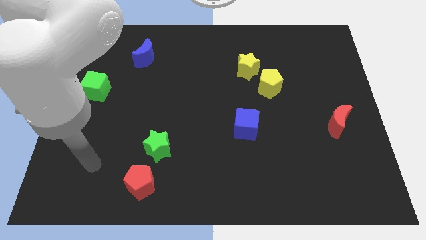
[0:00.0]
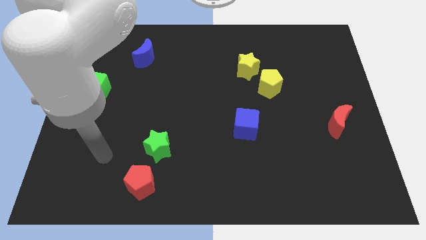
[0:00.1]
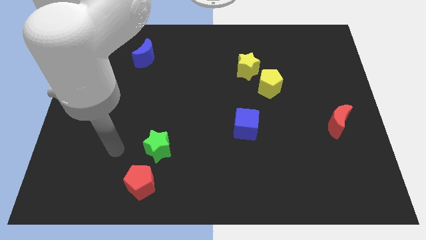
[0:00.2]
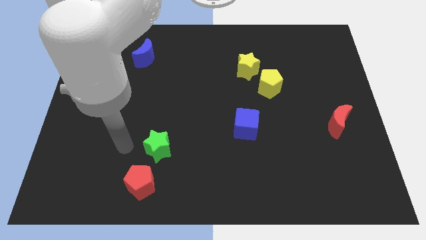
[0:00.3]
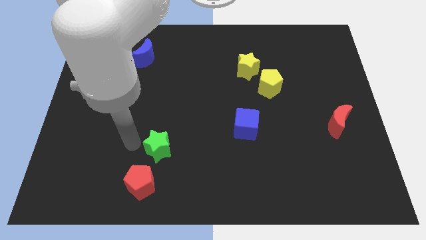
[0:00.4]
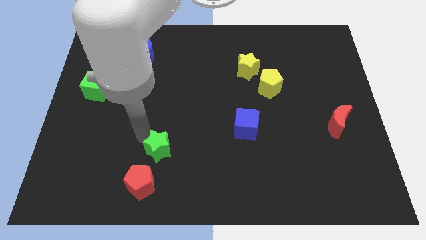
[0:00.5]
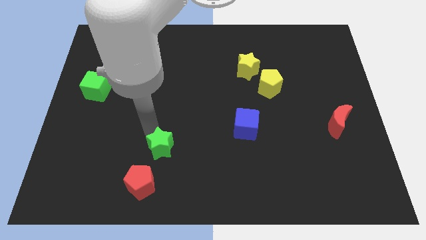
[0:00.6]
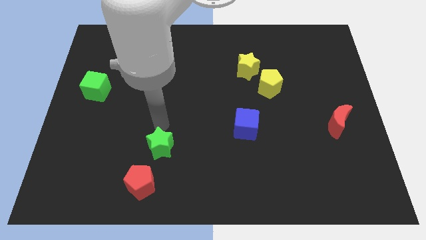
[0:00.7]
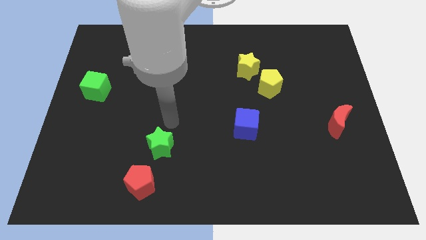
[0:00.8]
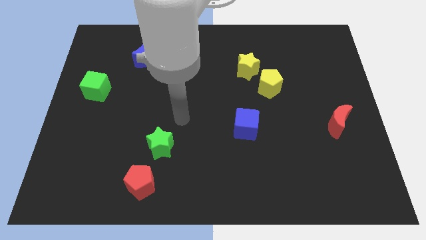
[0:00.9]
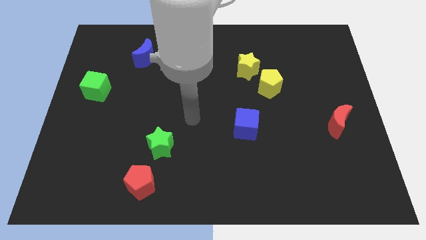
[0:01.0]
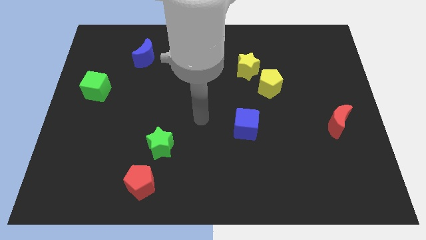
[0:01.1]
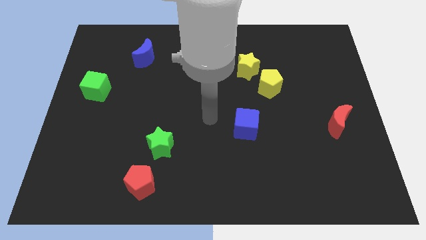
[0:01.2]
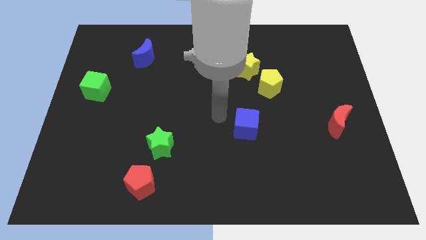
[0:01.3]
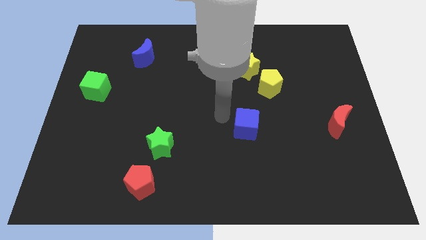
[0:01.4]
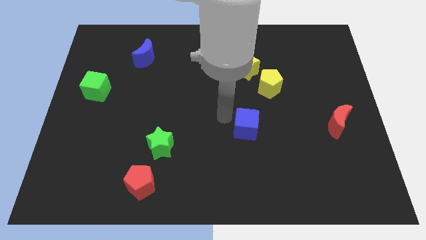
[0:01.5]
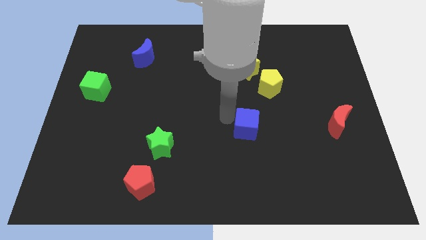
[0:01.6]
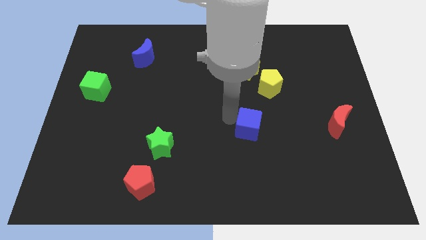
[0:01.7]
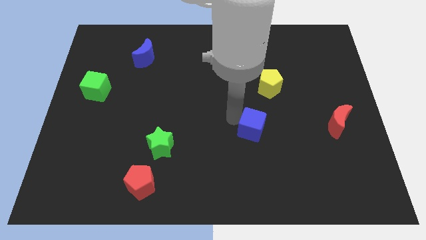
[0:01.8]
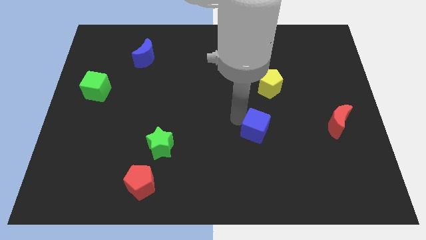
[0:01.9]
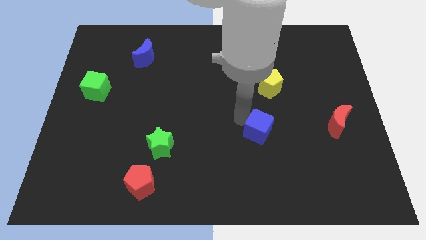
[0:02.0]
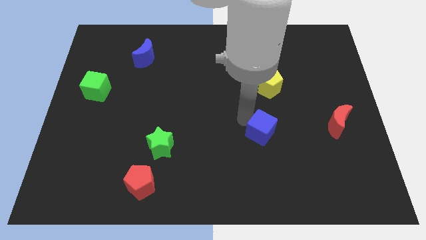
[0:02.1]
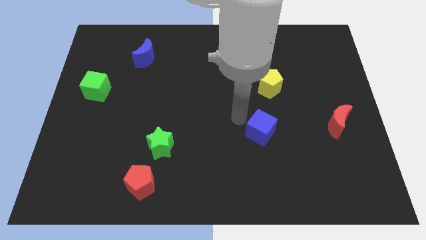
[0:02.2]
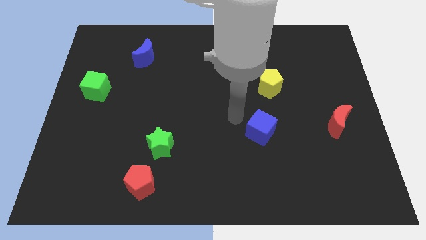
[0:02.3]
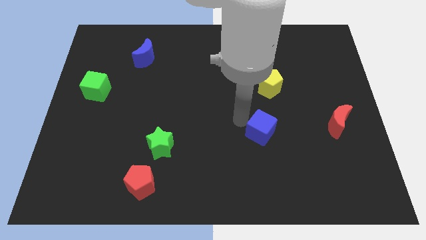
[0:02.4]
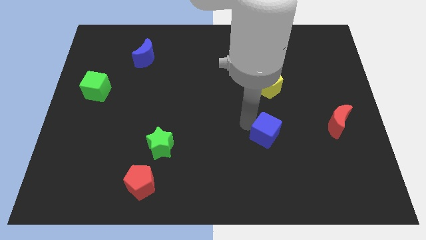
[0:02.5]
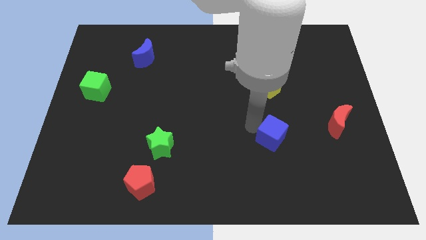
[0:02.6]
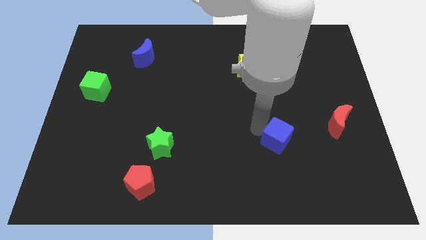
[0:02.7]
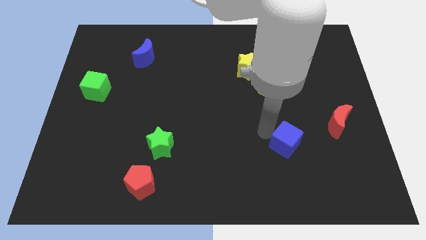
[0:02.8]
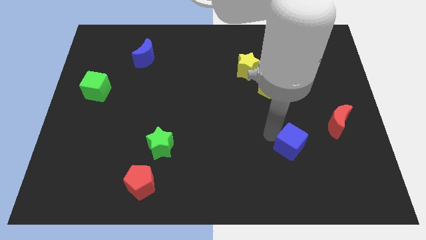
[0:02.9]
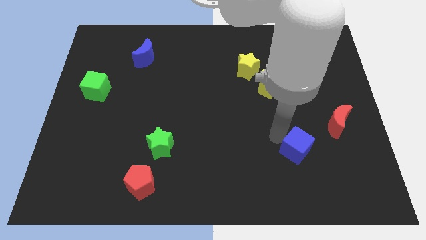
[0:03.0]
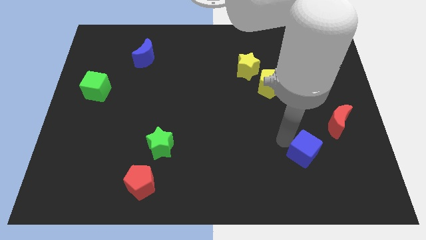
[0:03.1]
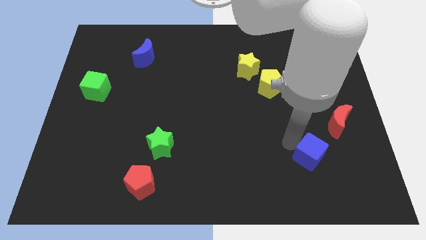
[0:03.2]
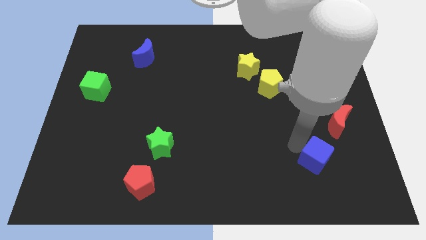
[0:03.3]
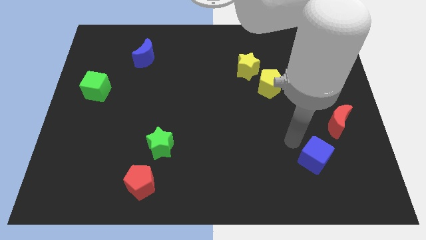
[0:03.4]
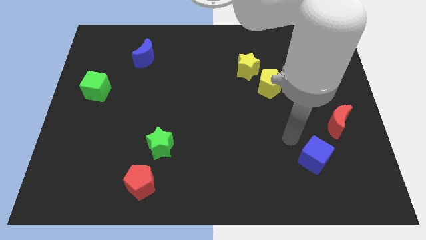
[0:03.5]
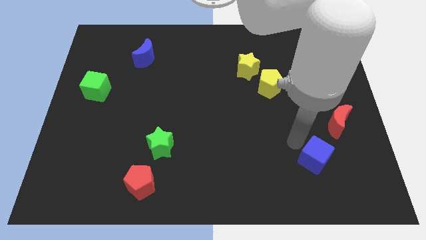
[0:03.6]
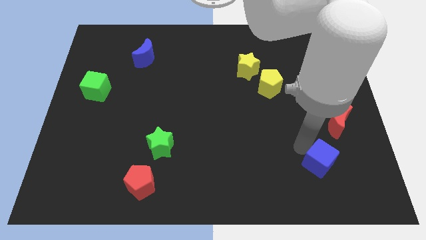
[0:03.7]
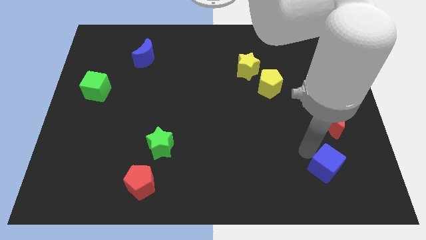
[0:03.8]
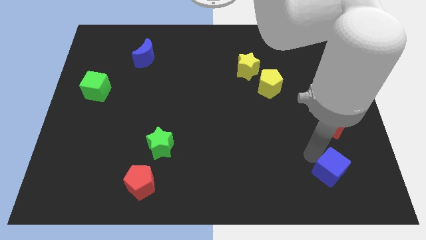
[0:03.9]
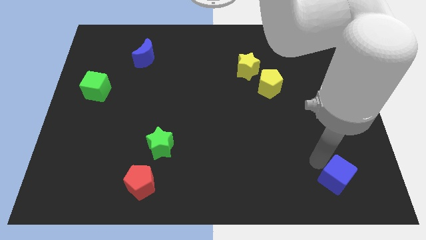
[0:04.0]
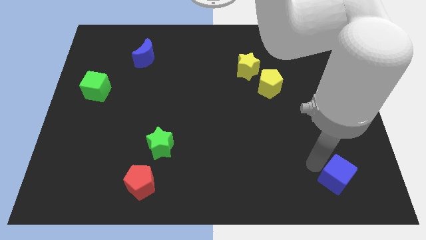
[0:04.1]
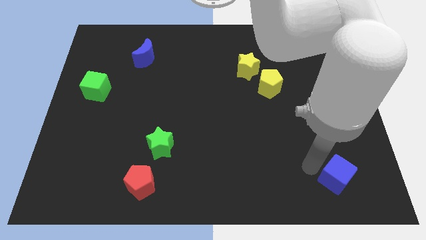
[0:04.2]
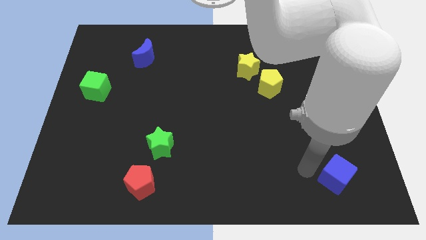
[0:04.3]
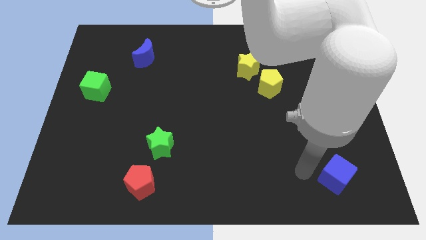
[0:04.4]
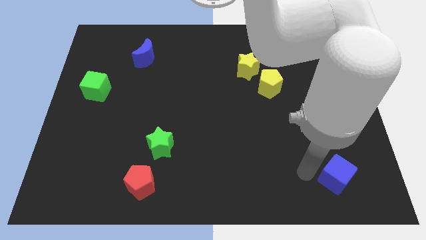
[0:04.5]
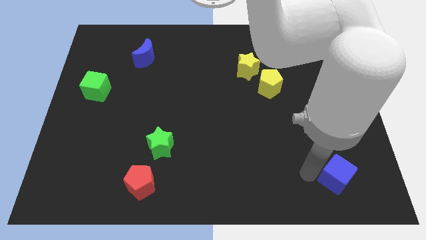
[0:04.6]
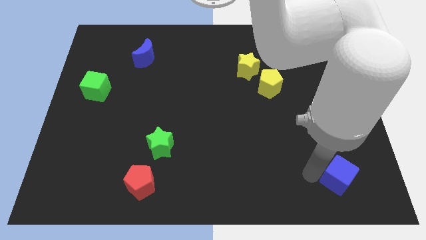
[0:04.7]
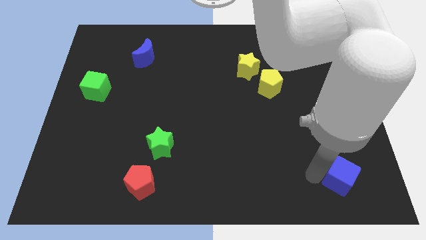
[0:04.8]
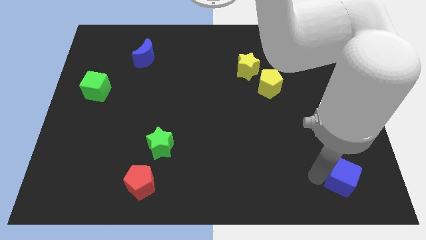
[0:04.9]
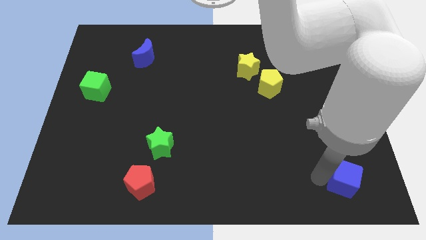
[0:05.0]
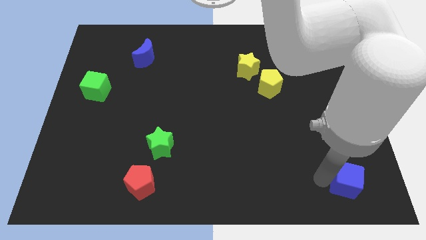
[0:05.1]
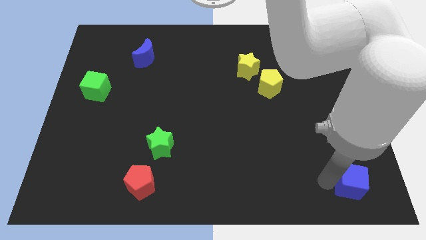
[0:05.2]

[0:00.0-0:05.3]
slide the blue cube to the bottom right of the board

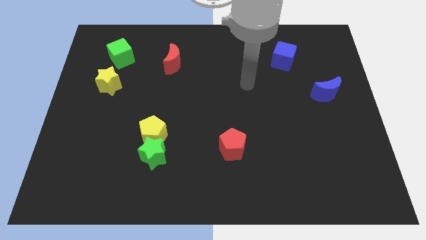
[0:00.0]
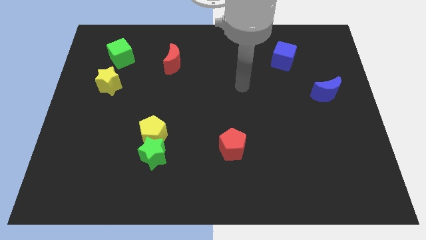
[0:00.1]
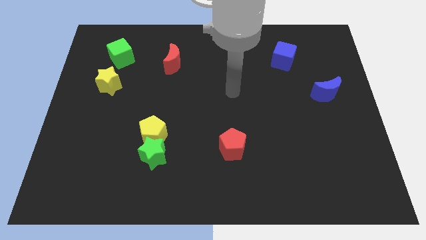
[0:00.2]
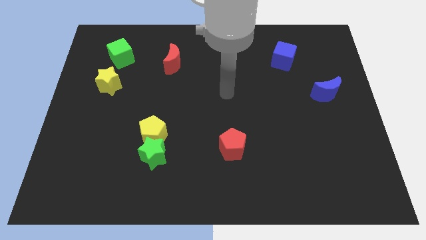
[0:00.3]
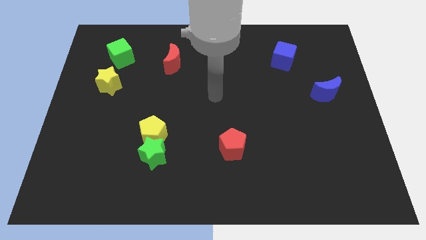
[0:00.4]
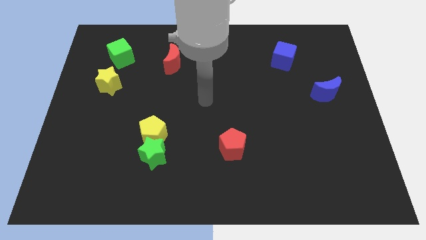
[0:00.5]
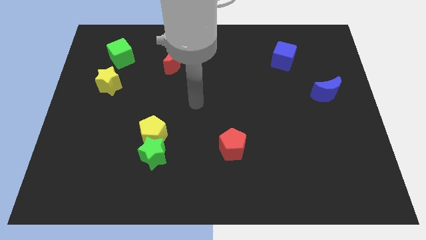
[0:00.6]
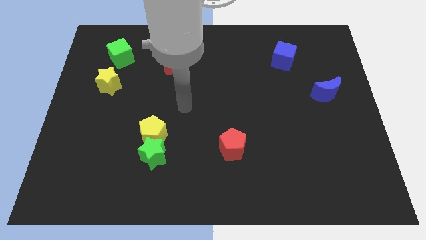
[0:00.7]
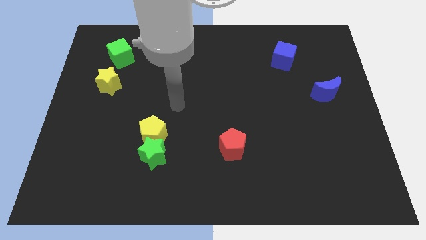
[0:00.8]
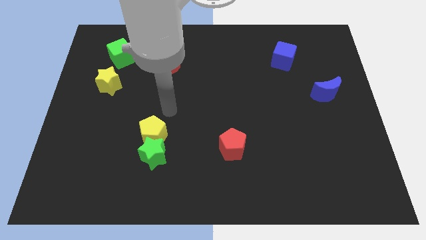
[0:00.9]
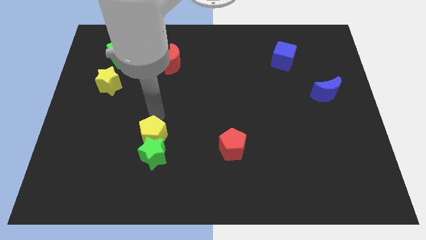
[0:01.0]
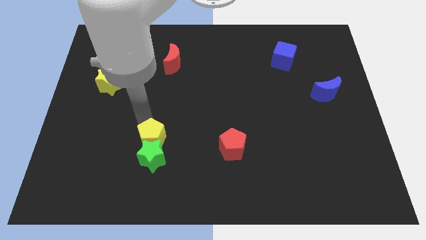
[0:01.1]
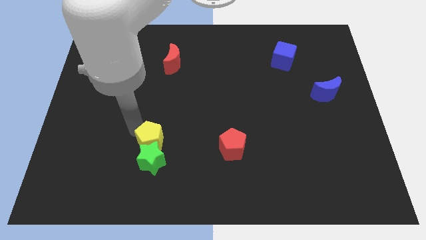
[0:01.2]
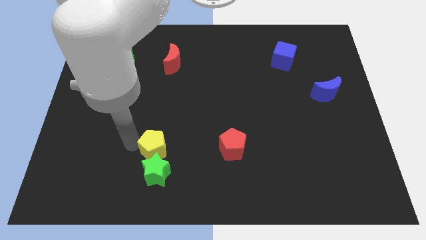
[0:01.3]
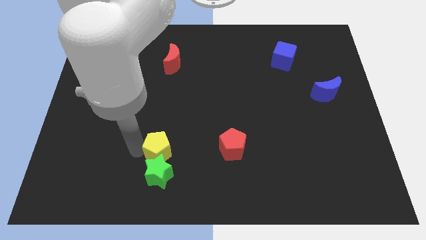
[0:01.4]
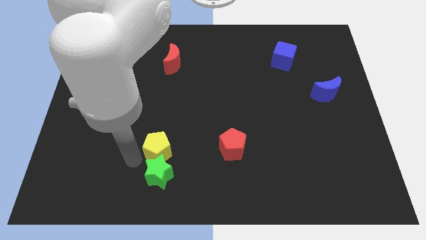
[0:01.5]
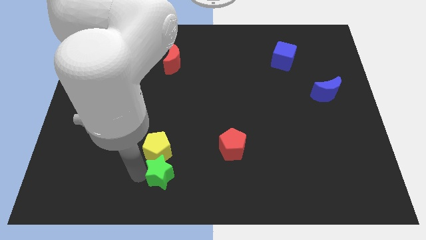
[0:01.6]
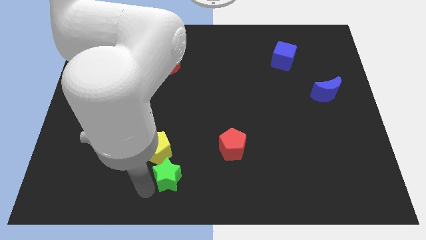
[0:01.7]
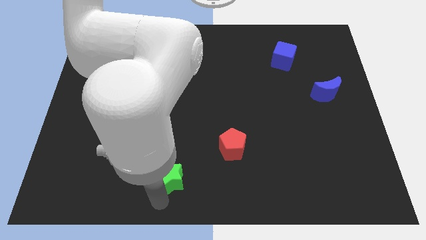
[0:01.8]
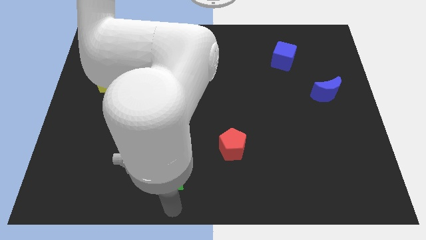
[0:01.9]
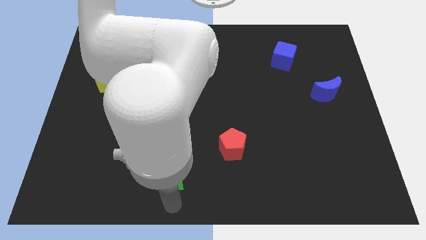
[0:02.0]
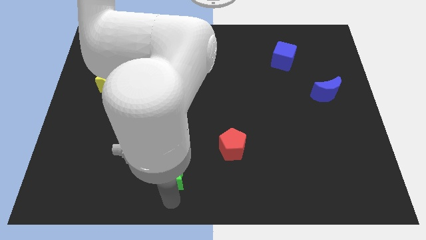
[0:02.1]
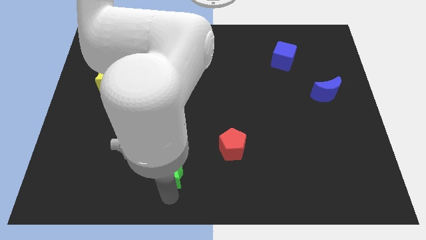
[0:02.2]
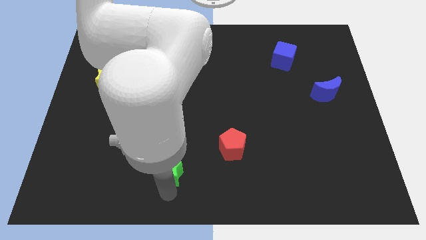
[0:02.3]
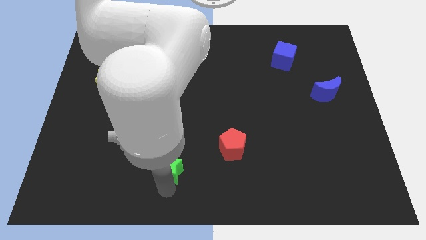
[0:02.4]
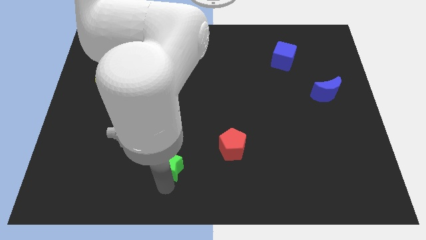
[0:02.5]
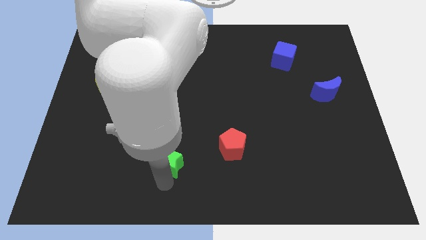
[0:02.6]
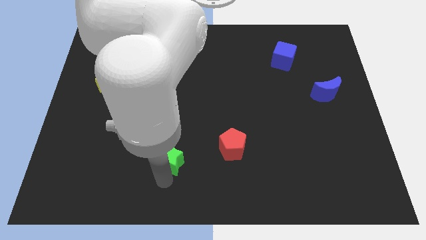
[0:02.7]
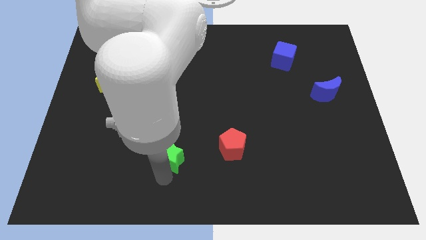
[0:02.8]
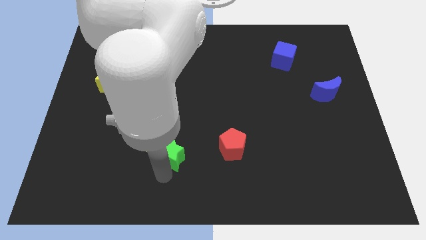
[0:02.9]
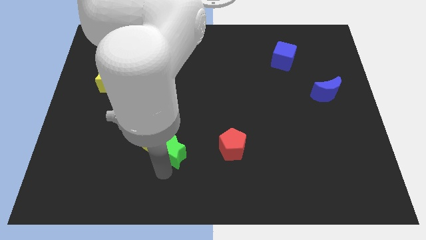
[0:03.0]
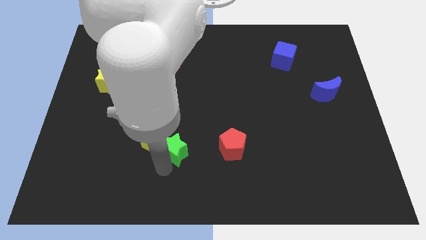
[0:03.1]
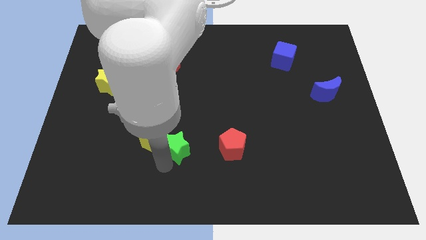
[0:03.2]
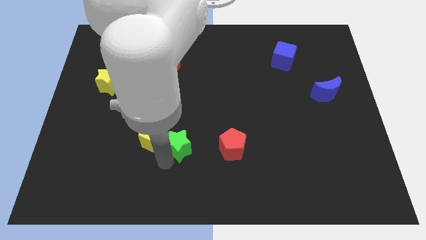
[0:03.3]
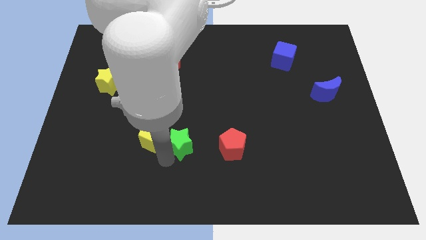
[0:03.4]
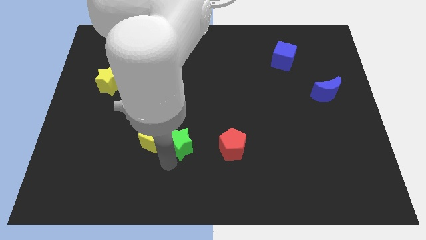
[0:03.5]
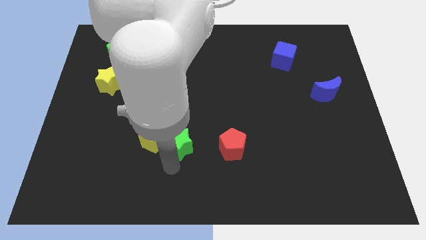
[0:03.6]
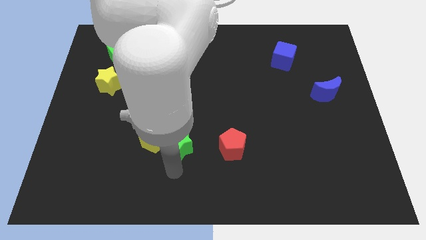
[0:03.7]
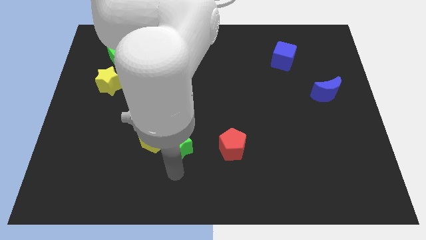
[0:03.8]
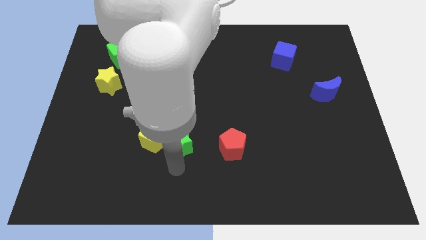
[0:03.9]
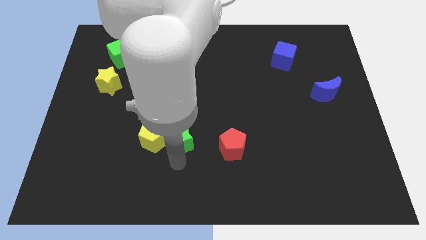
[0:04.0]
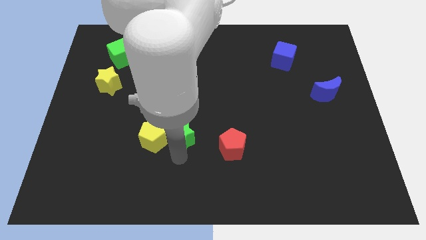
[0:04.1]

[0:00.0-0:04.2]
push the green star to the middle of the board
